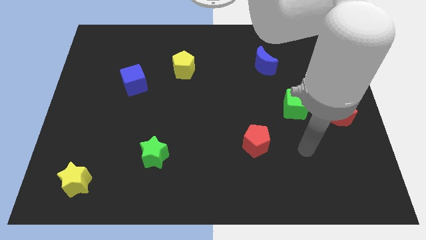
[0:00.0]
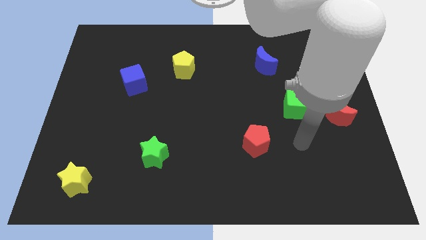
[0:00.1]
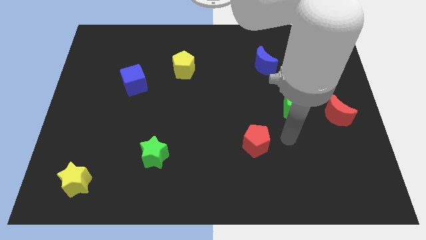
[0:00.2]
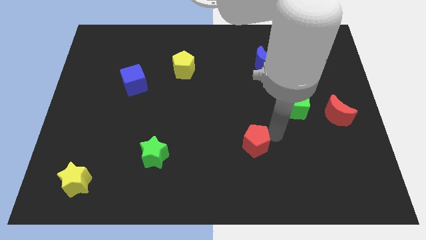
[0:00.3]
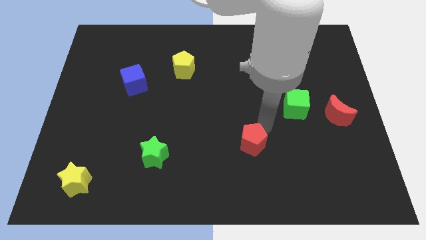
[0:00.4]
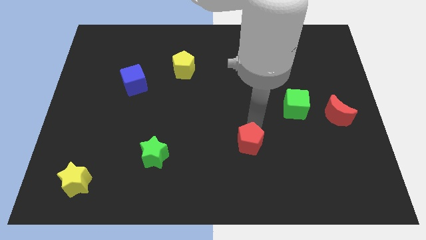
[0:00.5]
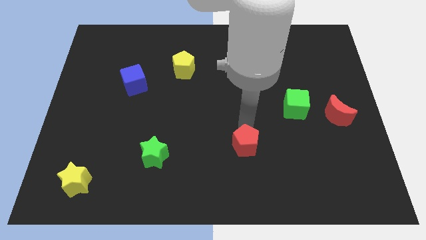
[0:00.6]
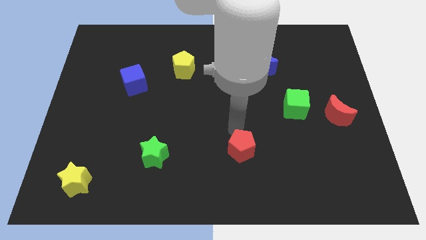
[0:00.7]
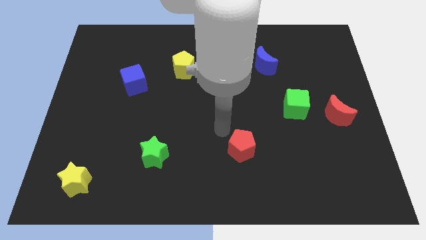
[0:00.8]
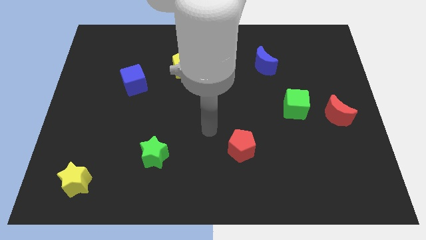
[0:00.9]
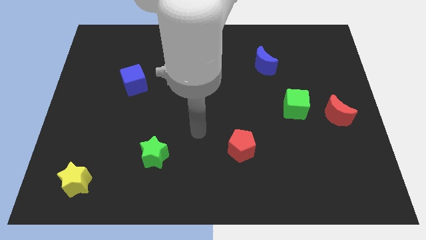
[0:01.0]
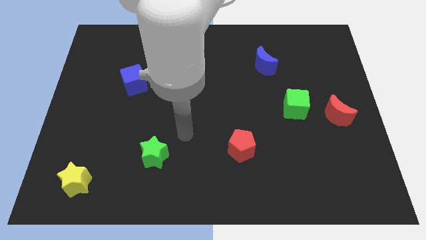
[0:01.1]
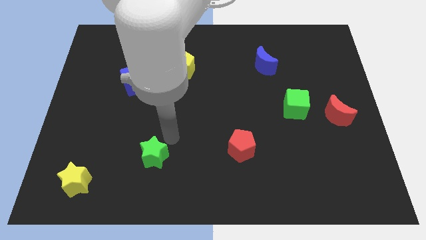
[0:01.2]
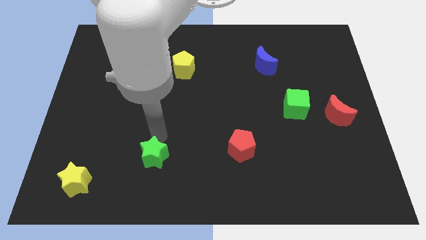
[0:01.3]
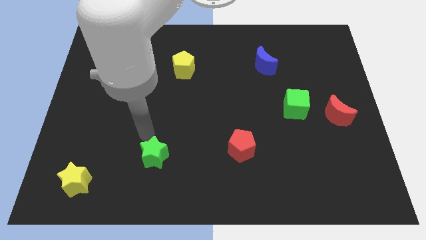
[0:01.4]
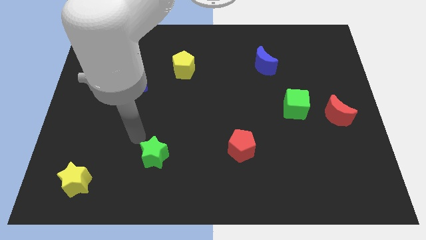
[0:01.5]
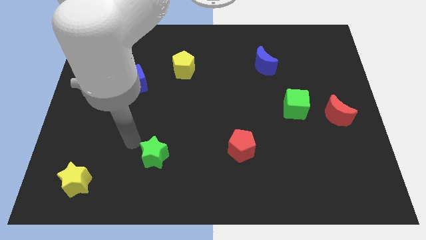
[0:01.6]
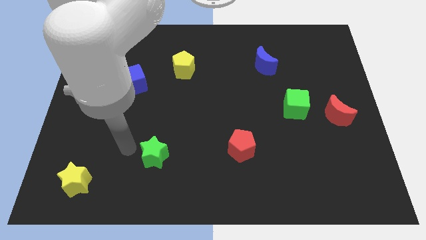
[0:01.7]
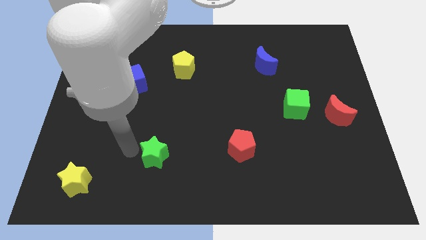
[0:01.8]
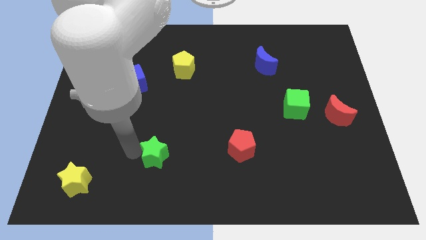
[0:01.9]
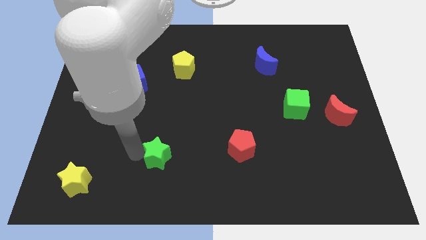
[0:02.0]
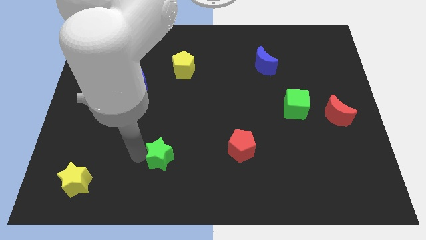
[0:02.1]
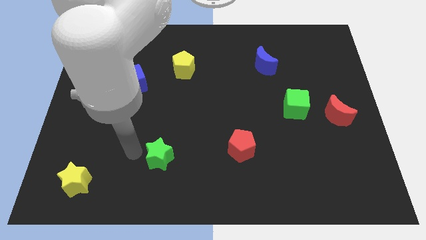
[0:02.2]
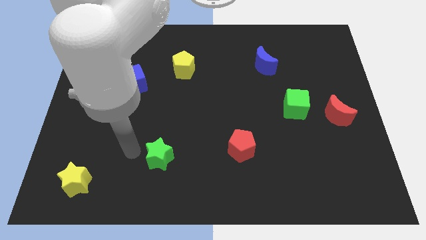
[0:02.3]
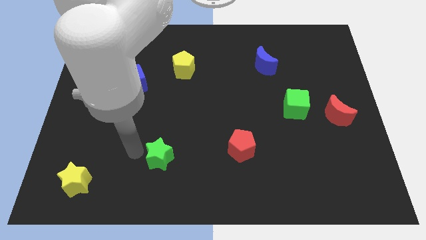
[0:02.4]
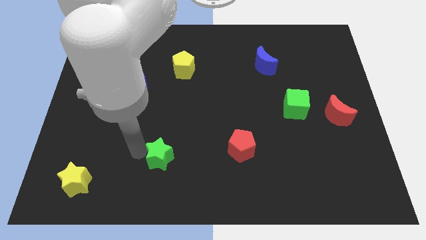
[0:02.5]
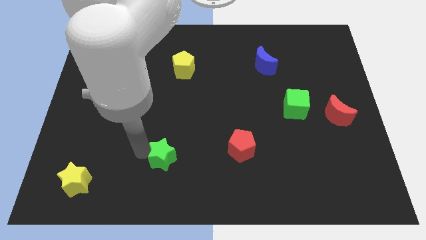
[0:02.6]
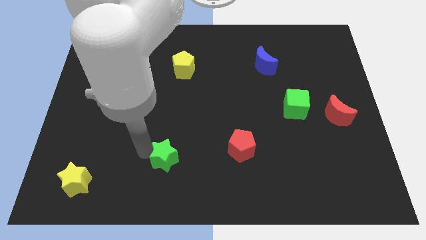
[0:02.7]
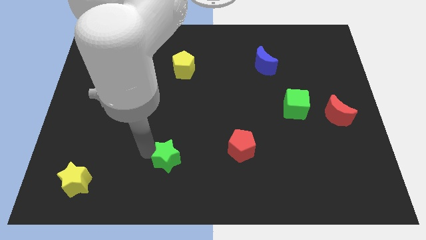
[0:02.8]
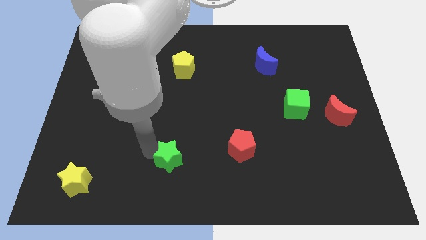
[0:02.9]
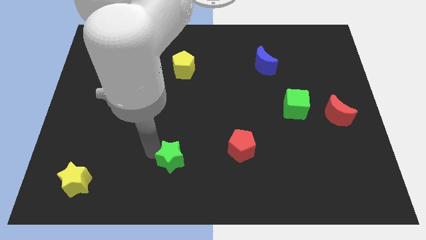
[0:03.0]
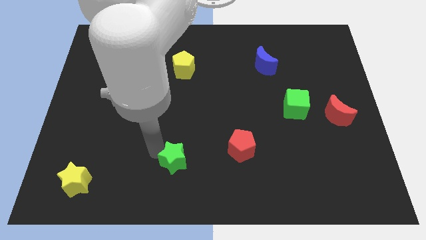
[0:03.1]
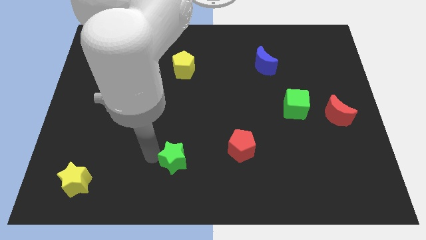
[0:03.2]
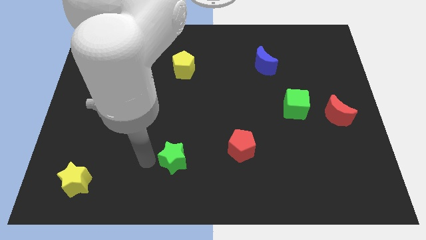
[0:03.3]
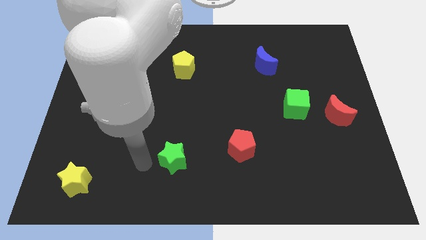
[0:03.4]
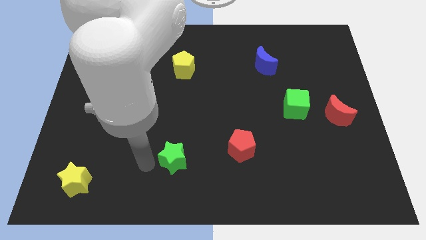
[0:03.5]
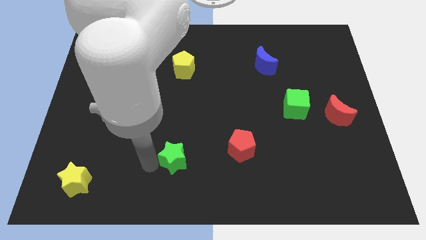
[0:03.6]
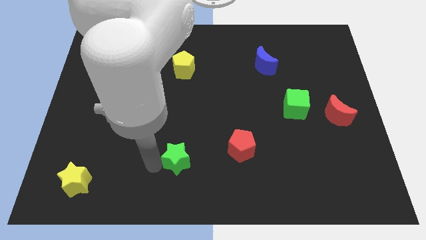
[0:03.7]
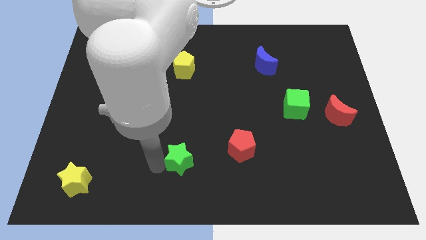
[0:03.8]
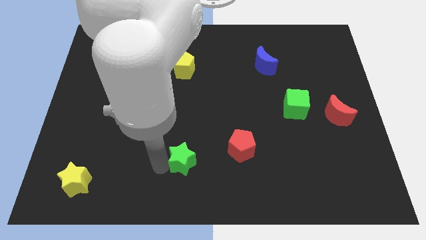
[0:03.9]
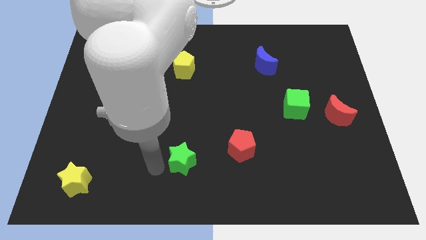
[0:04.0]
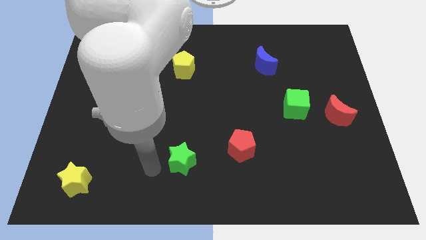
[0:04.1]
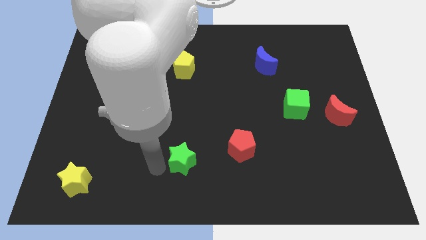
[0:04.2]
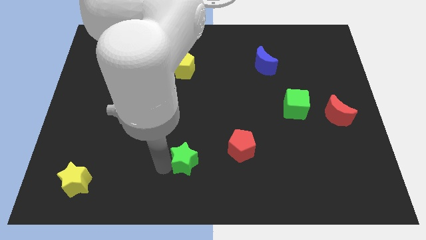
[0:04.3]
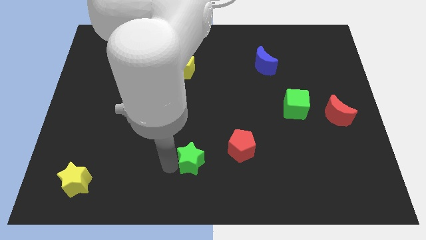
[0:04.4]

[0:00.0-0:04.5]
slide the green star right a little bit

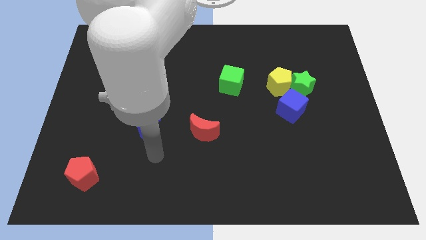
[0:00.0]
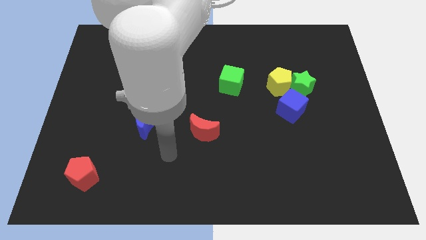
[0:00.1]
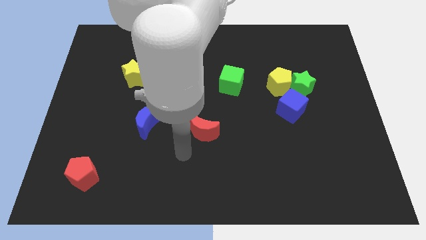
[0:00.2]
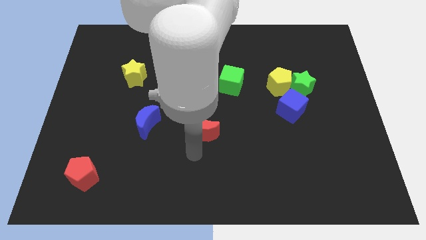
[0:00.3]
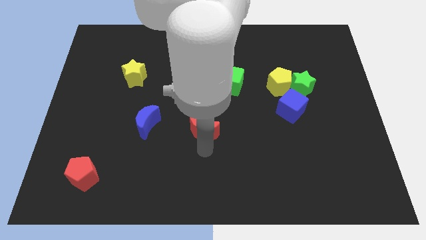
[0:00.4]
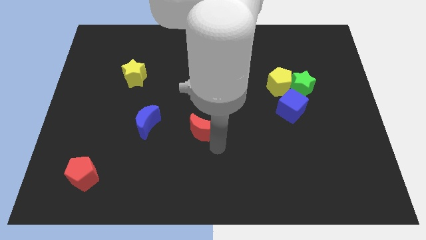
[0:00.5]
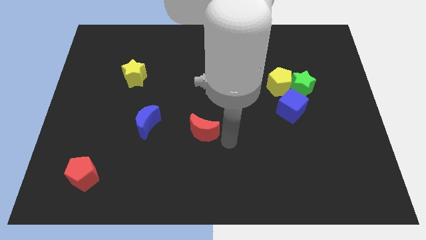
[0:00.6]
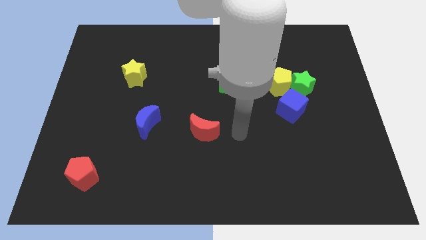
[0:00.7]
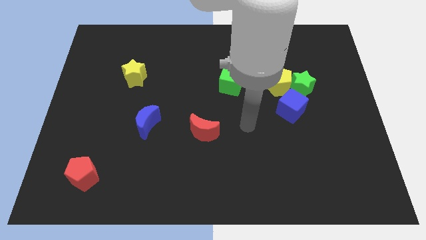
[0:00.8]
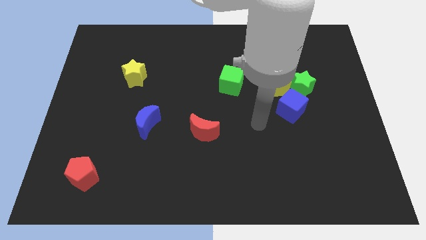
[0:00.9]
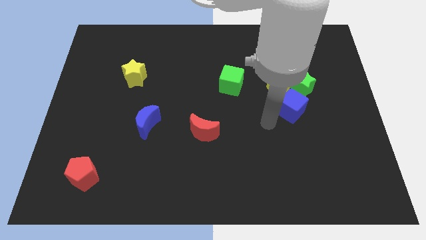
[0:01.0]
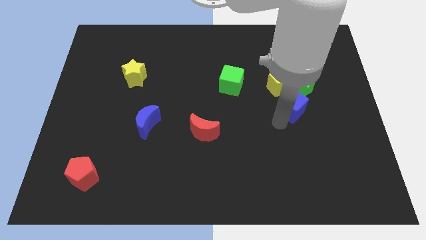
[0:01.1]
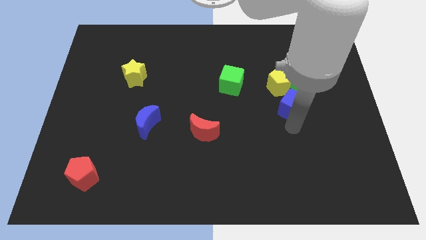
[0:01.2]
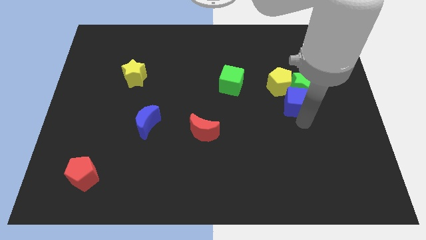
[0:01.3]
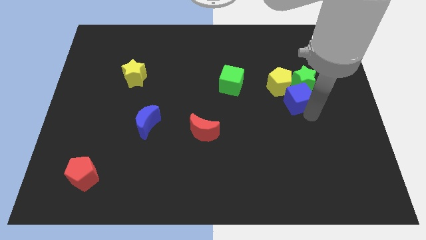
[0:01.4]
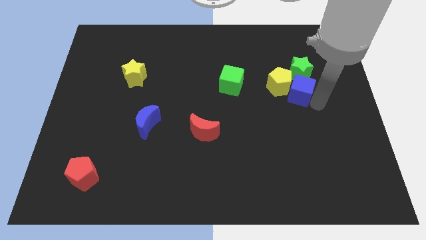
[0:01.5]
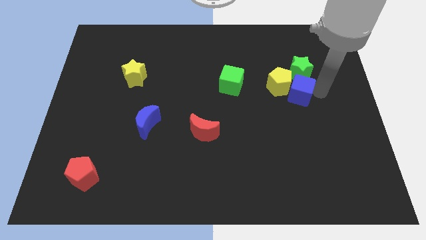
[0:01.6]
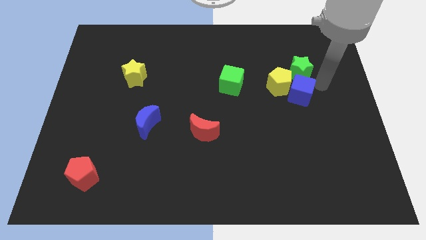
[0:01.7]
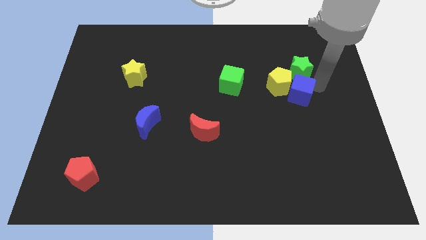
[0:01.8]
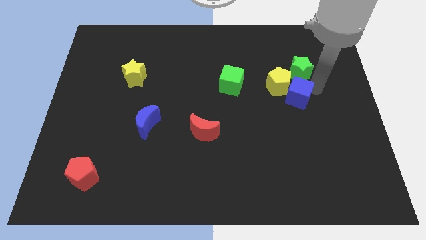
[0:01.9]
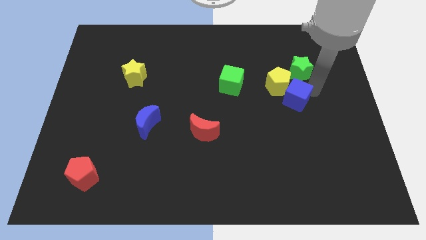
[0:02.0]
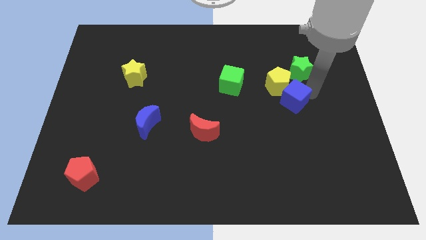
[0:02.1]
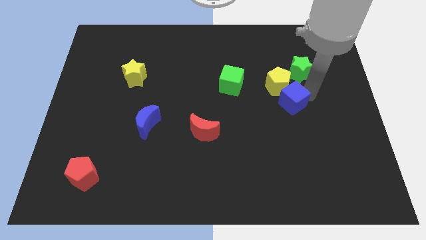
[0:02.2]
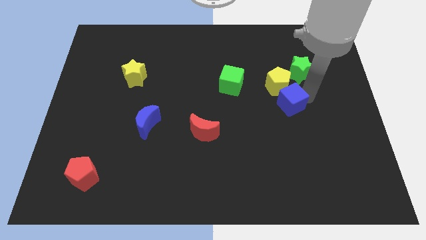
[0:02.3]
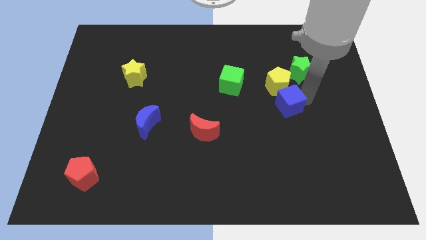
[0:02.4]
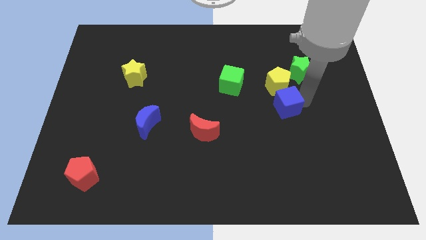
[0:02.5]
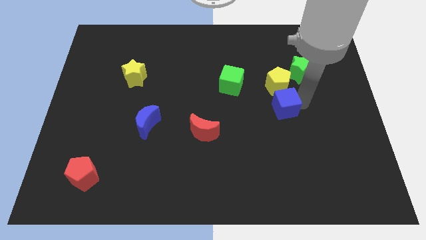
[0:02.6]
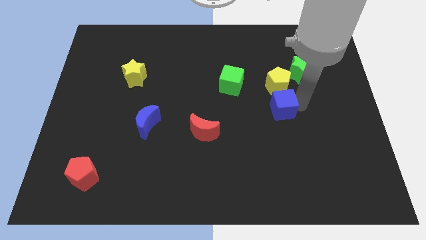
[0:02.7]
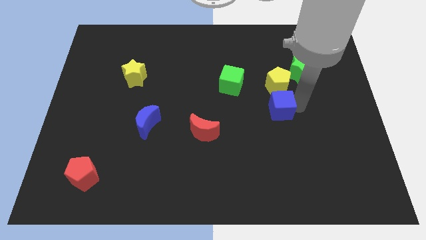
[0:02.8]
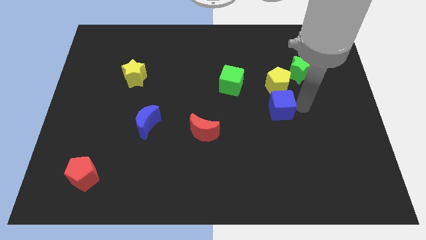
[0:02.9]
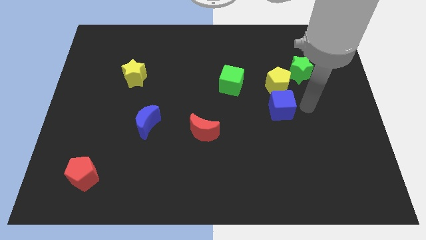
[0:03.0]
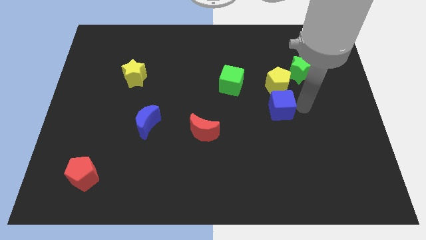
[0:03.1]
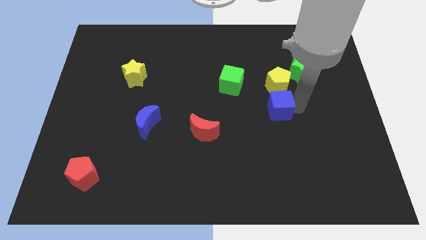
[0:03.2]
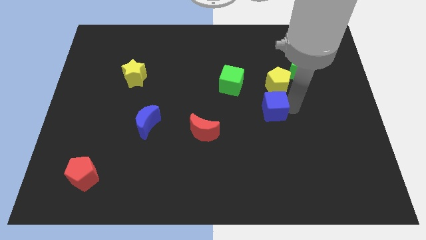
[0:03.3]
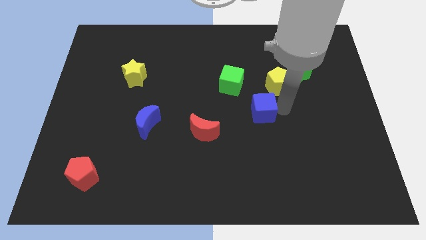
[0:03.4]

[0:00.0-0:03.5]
slightly slide the blue cube left

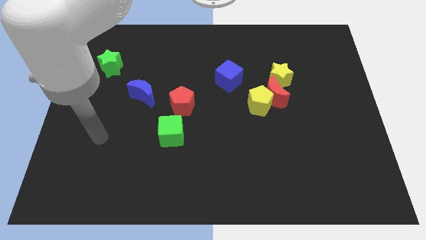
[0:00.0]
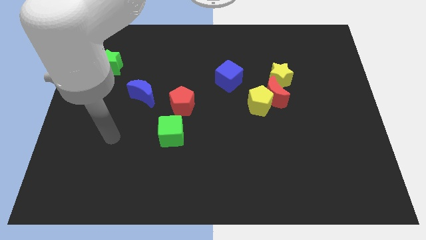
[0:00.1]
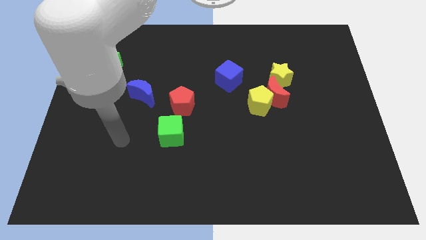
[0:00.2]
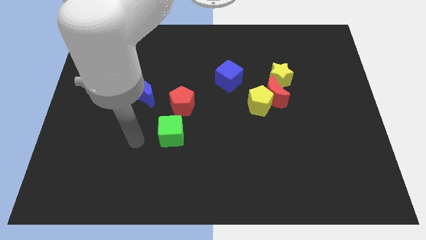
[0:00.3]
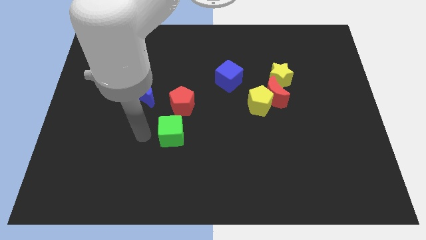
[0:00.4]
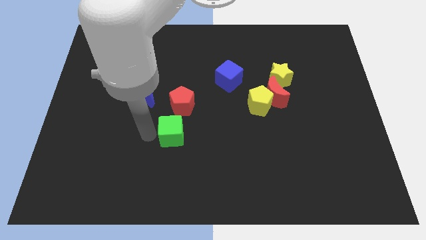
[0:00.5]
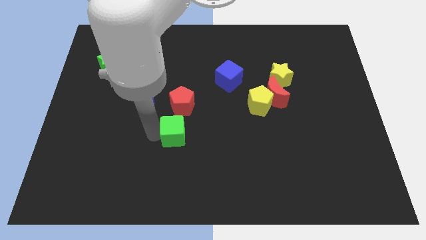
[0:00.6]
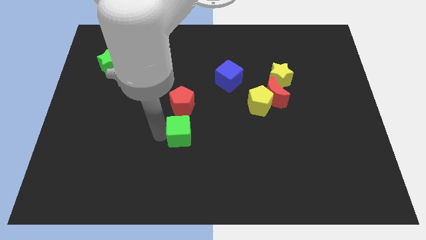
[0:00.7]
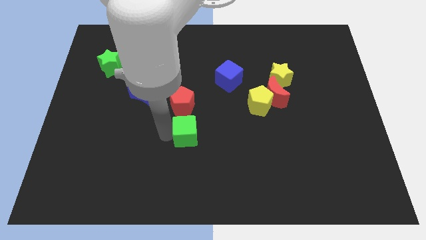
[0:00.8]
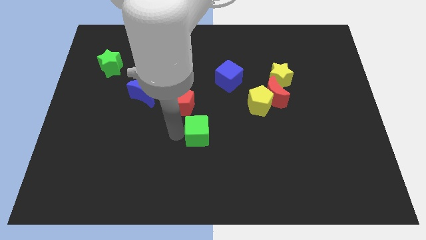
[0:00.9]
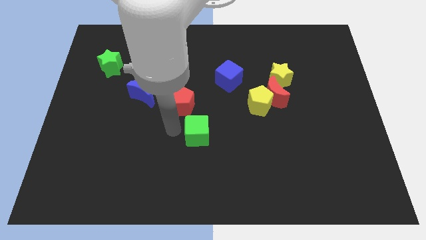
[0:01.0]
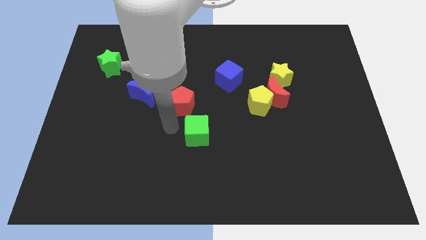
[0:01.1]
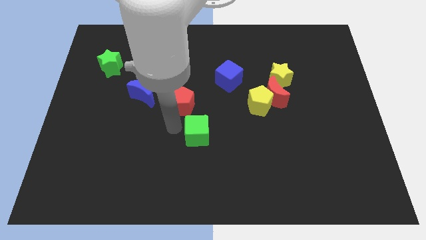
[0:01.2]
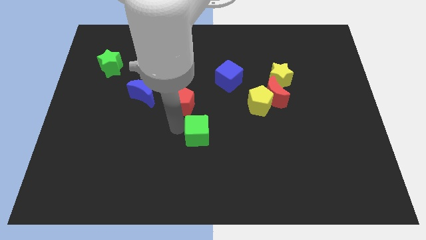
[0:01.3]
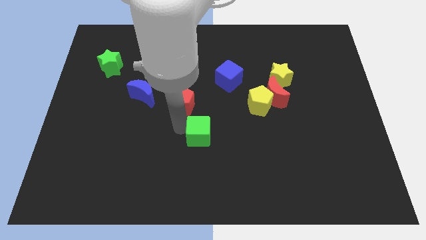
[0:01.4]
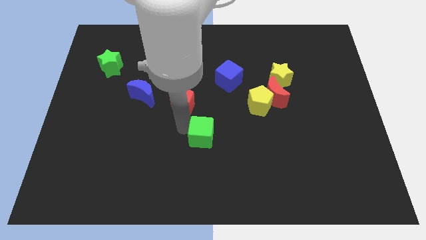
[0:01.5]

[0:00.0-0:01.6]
slightly slide the green cube to the right
